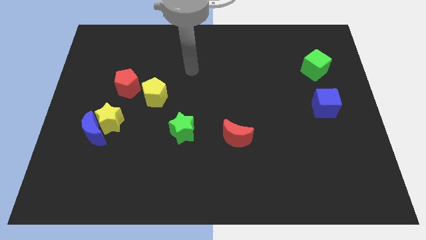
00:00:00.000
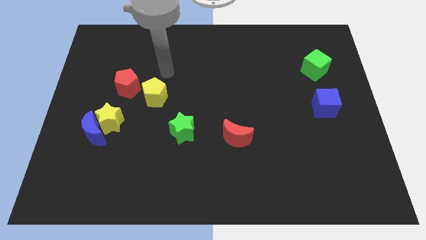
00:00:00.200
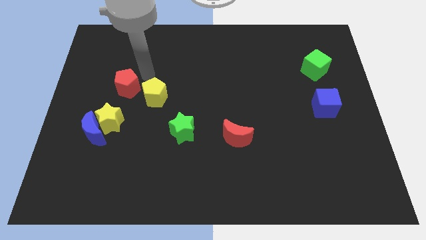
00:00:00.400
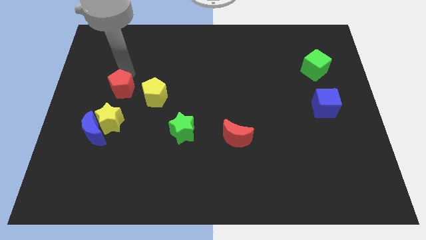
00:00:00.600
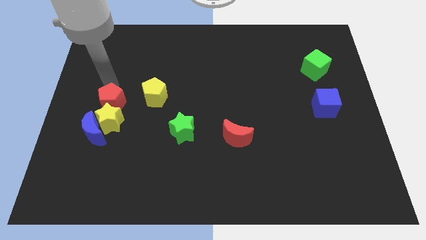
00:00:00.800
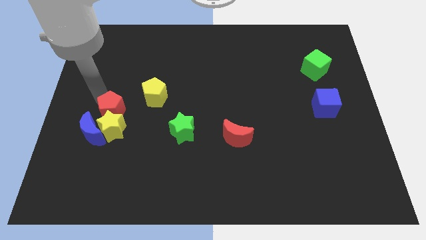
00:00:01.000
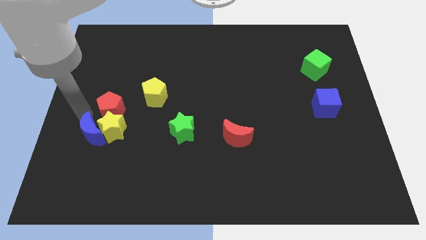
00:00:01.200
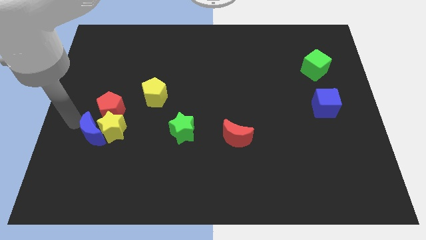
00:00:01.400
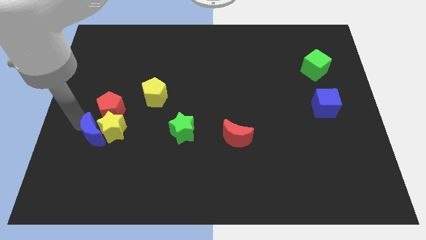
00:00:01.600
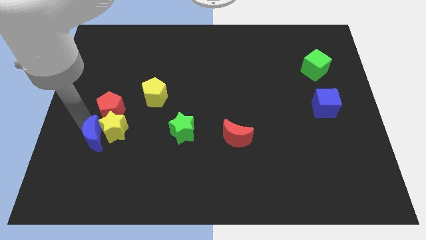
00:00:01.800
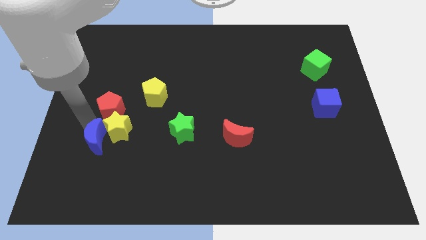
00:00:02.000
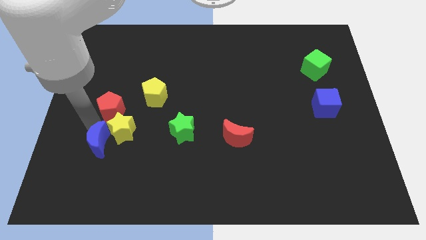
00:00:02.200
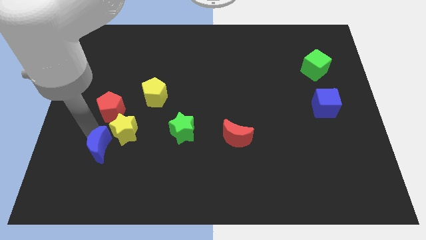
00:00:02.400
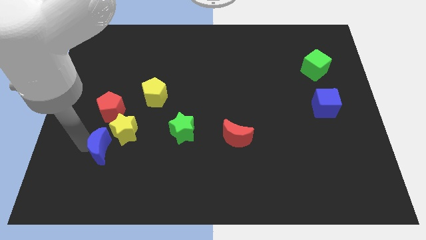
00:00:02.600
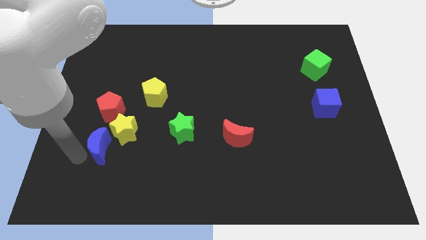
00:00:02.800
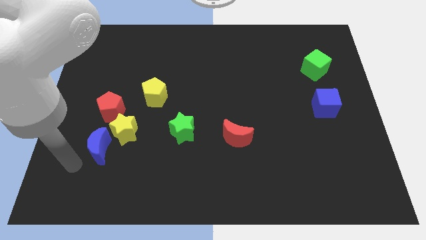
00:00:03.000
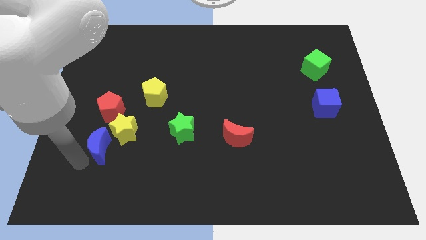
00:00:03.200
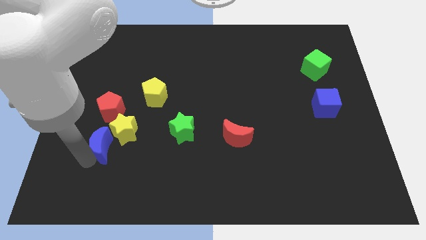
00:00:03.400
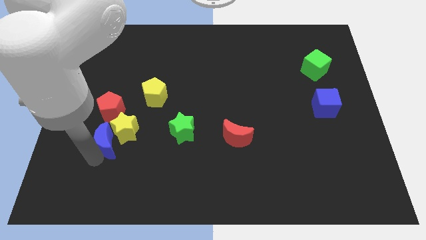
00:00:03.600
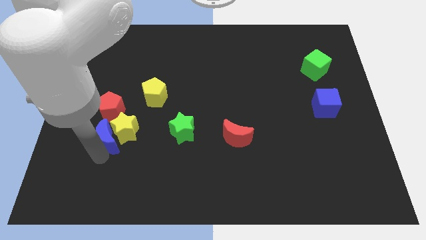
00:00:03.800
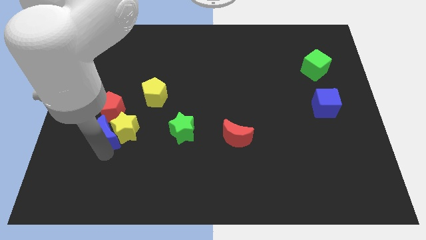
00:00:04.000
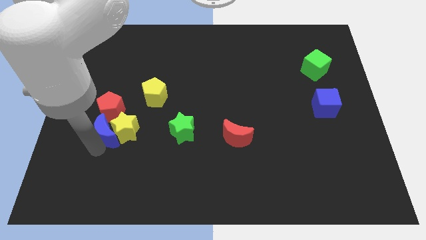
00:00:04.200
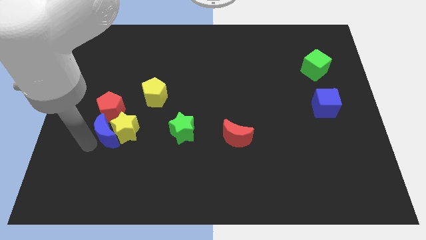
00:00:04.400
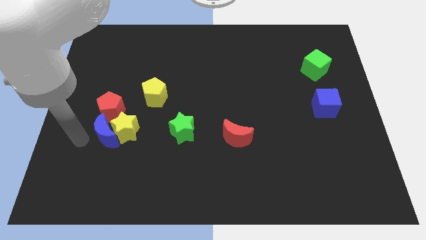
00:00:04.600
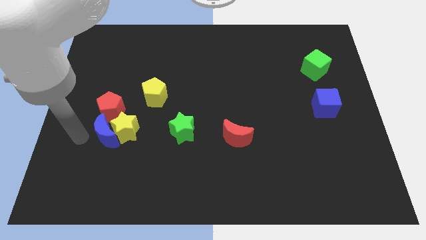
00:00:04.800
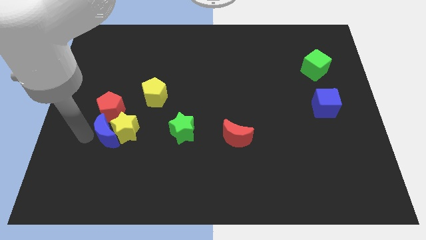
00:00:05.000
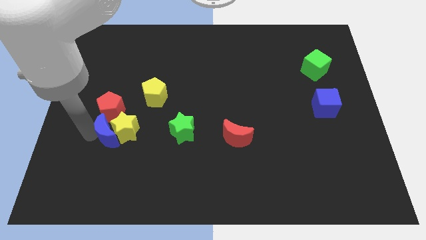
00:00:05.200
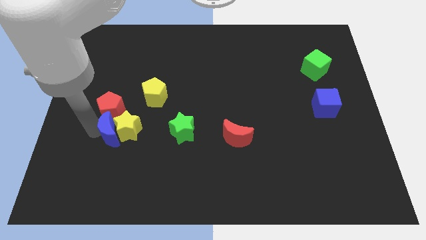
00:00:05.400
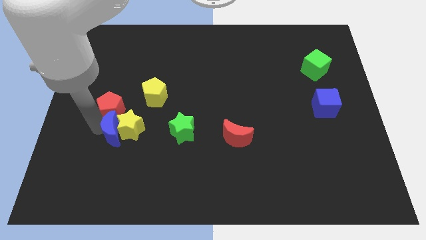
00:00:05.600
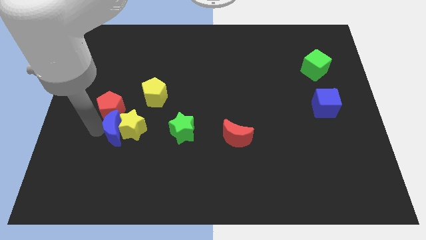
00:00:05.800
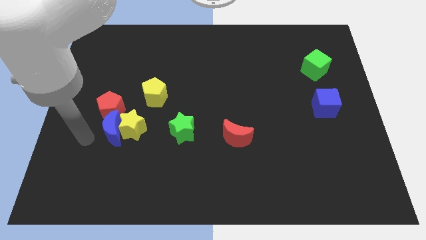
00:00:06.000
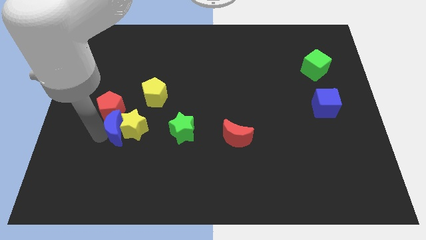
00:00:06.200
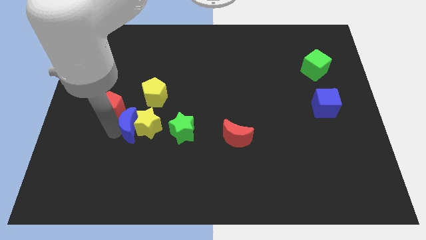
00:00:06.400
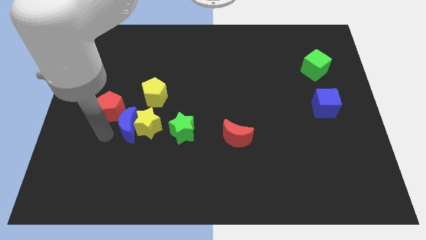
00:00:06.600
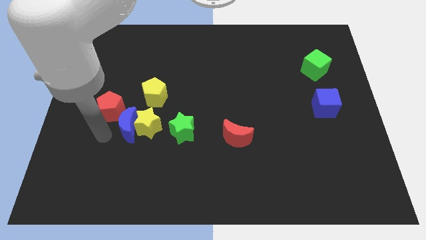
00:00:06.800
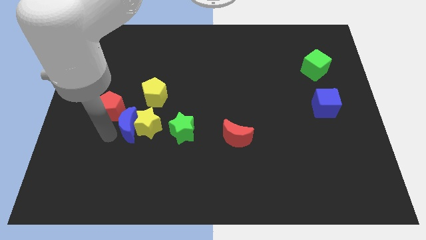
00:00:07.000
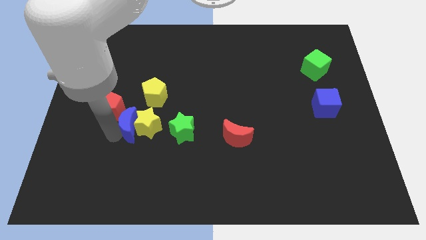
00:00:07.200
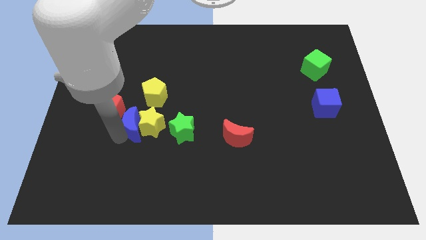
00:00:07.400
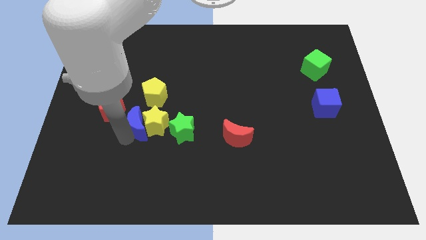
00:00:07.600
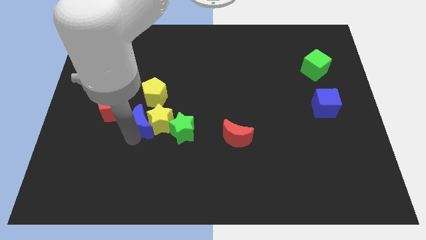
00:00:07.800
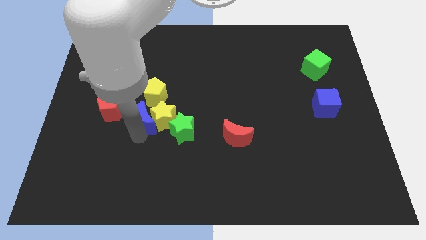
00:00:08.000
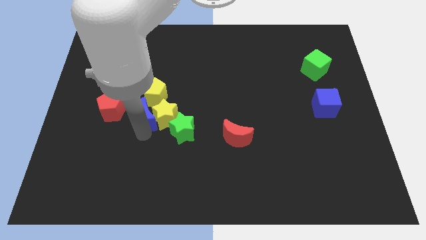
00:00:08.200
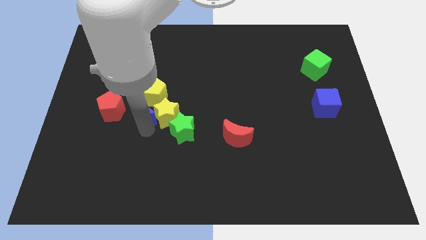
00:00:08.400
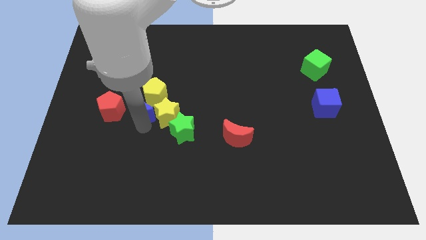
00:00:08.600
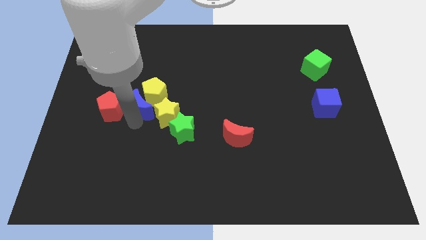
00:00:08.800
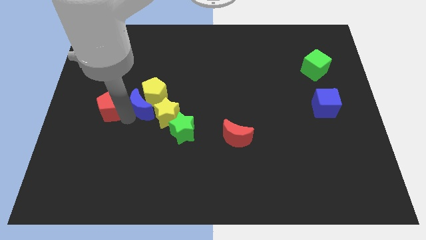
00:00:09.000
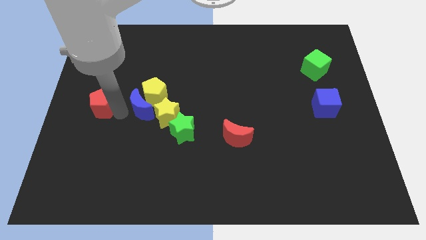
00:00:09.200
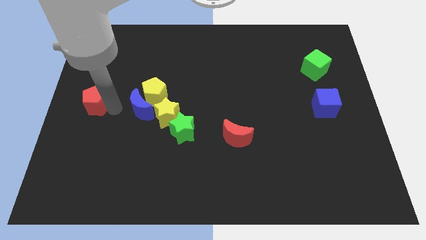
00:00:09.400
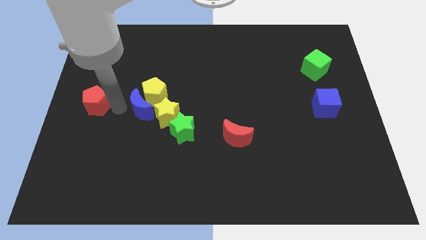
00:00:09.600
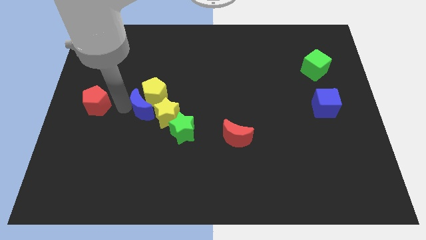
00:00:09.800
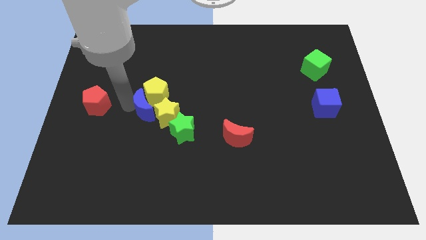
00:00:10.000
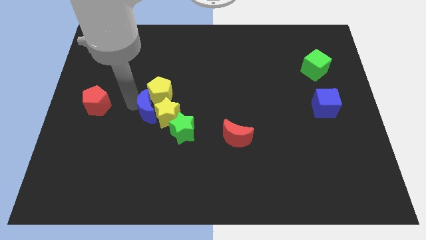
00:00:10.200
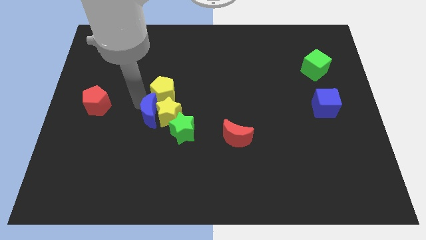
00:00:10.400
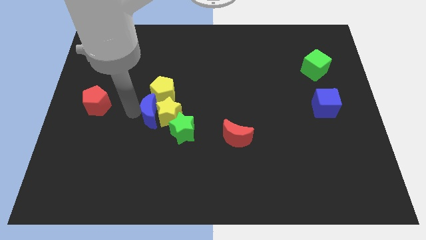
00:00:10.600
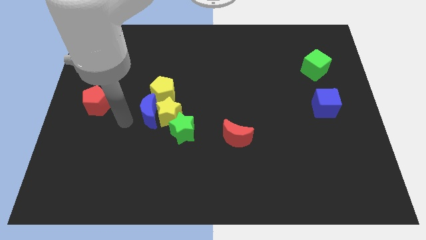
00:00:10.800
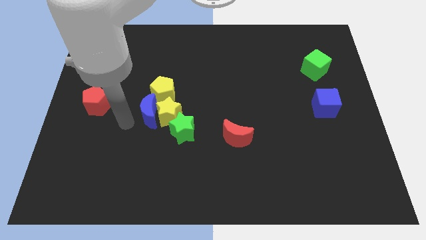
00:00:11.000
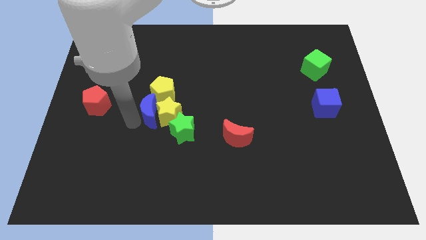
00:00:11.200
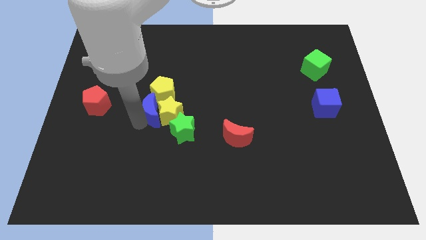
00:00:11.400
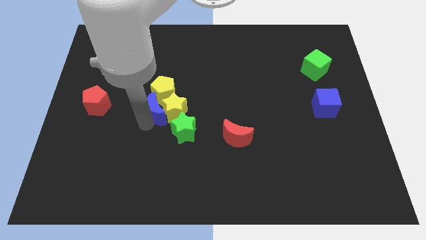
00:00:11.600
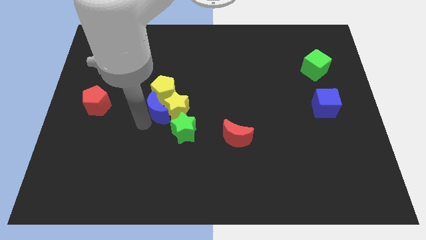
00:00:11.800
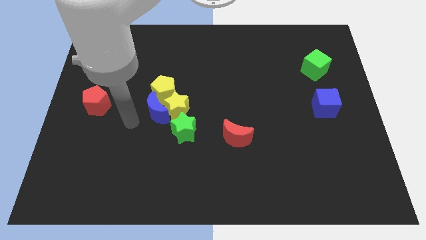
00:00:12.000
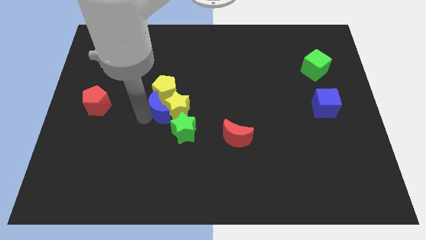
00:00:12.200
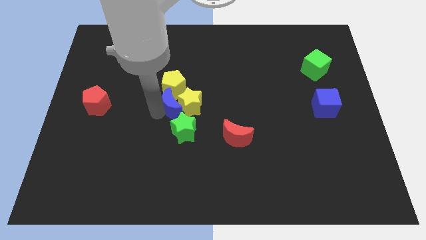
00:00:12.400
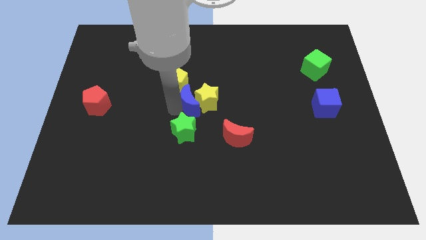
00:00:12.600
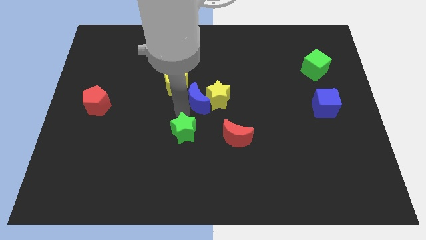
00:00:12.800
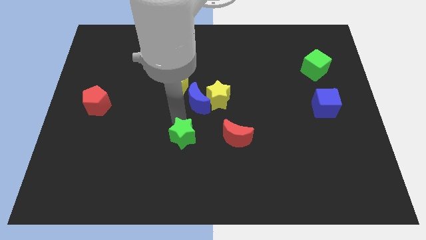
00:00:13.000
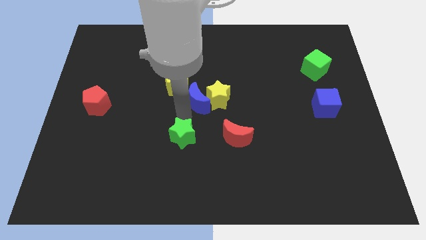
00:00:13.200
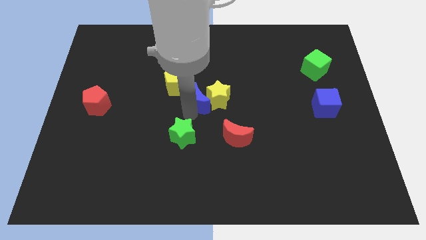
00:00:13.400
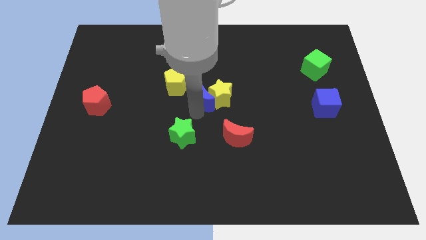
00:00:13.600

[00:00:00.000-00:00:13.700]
slide the blue moon right of the yellow pentagon

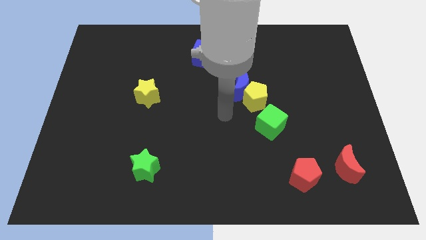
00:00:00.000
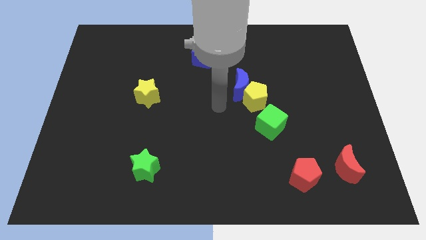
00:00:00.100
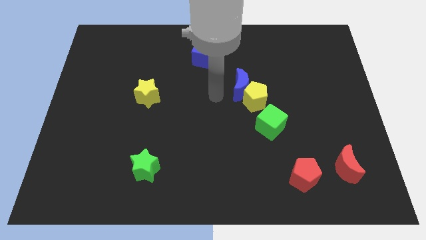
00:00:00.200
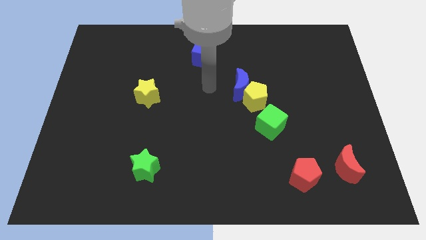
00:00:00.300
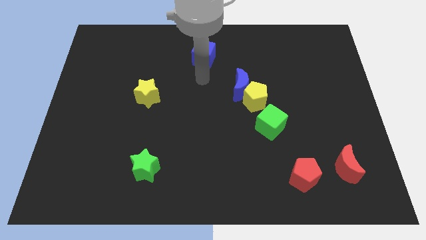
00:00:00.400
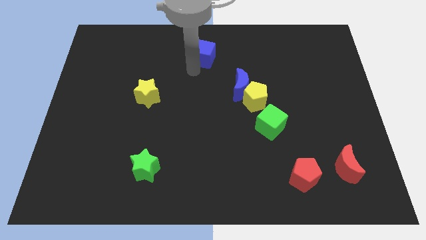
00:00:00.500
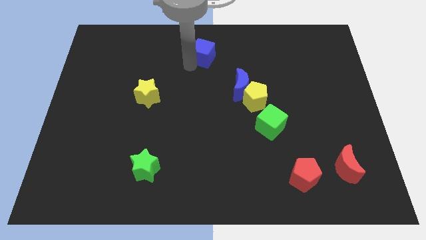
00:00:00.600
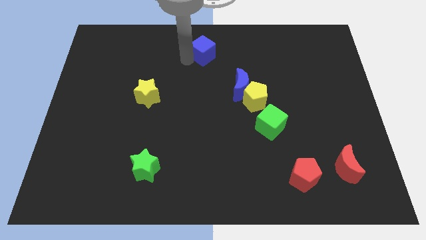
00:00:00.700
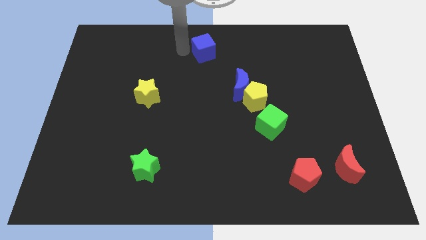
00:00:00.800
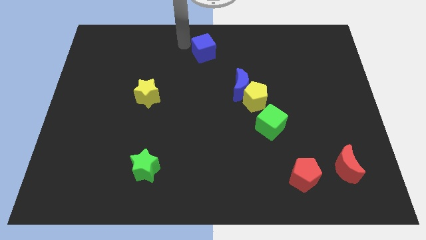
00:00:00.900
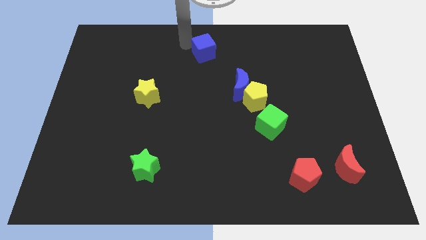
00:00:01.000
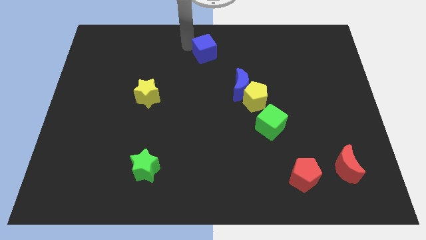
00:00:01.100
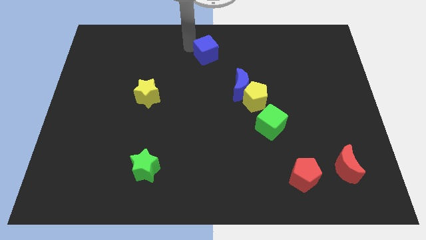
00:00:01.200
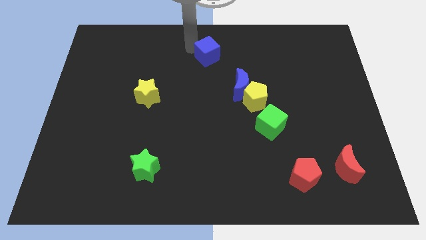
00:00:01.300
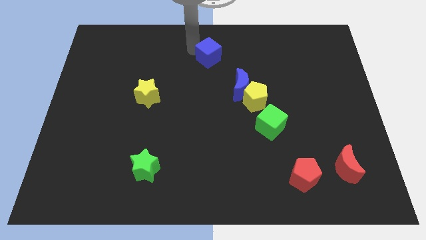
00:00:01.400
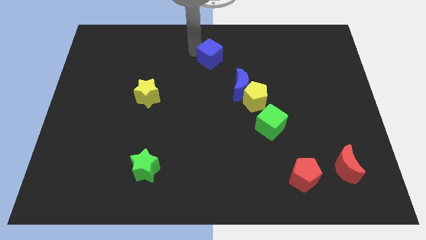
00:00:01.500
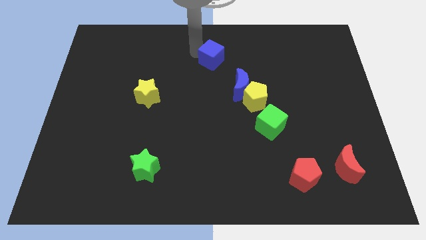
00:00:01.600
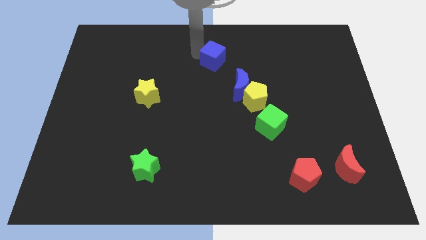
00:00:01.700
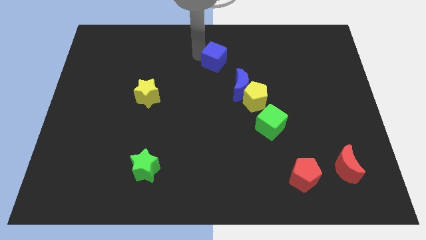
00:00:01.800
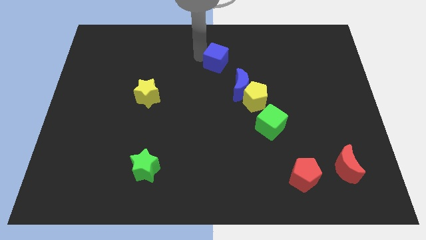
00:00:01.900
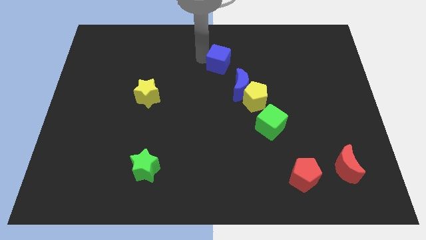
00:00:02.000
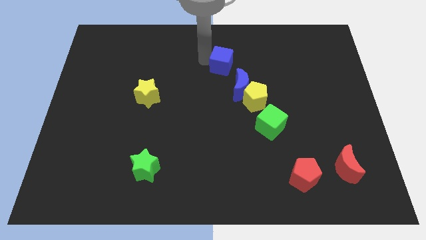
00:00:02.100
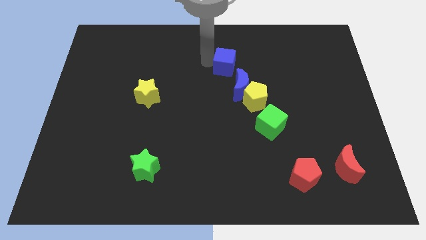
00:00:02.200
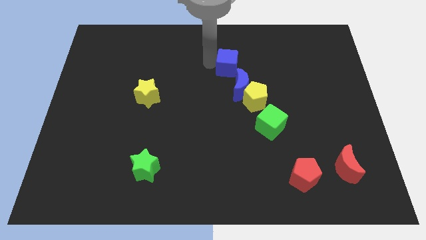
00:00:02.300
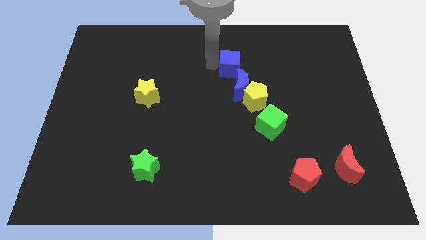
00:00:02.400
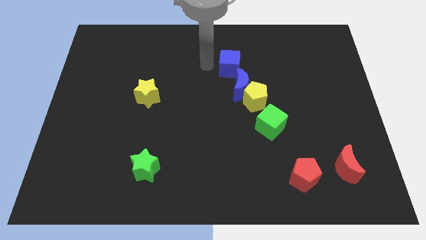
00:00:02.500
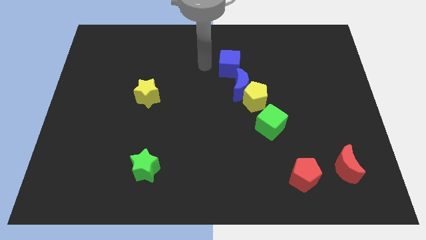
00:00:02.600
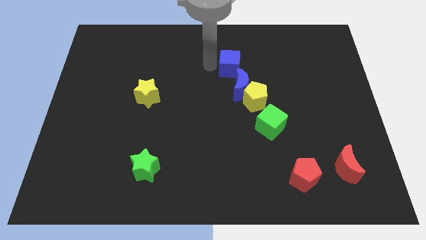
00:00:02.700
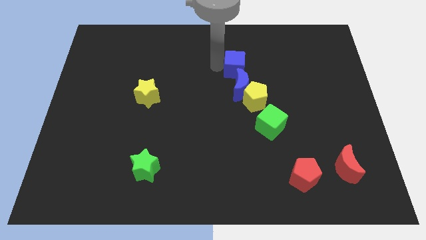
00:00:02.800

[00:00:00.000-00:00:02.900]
push the blue cube to the top of the yellow pentagon
